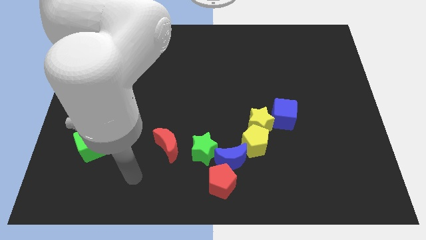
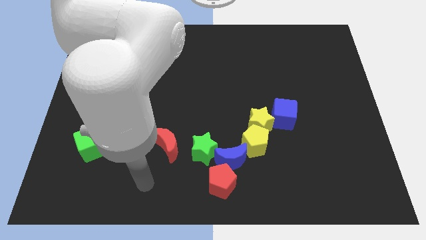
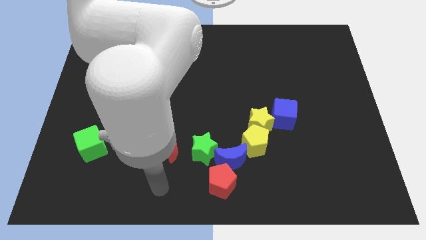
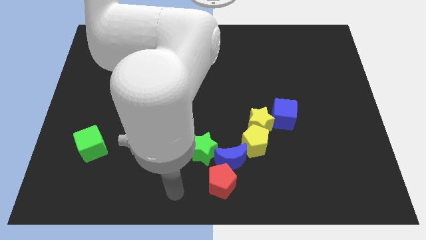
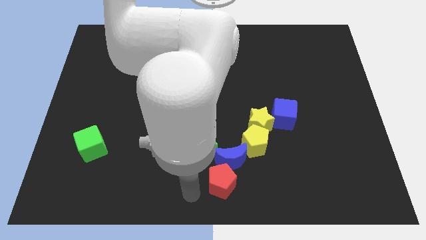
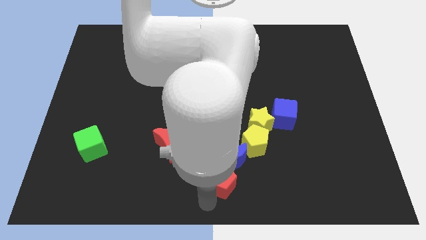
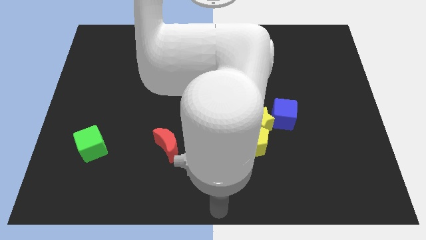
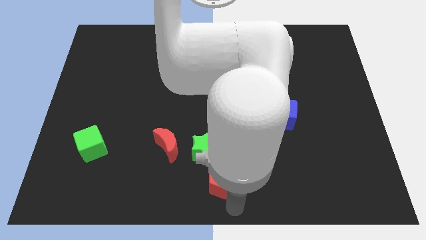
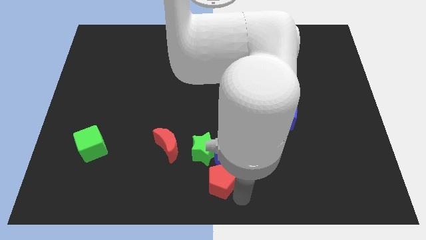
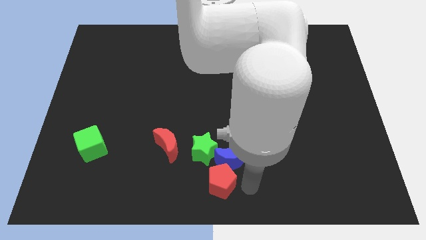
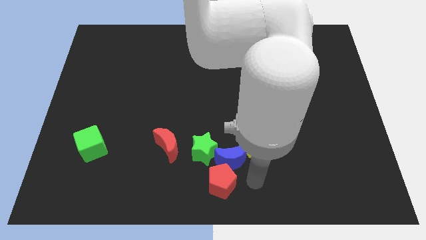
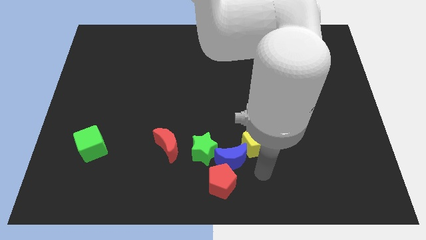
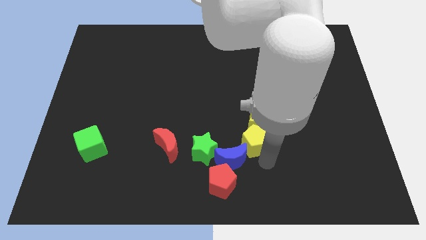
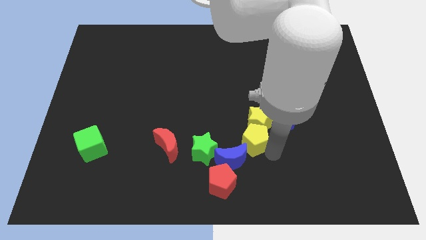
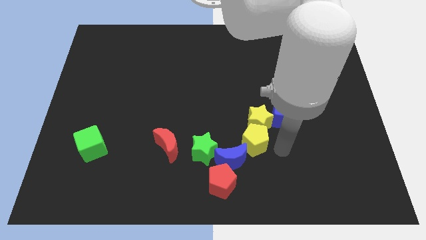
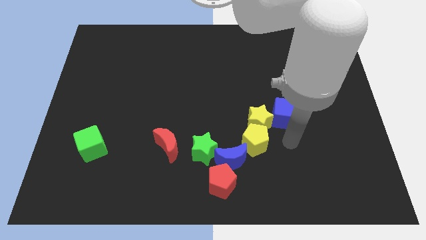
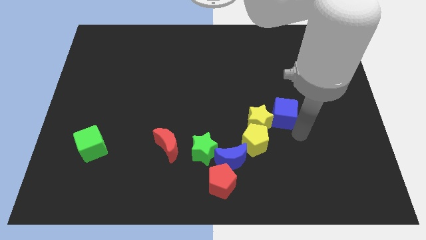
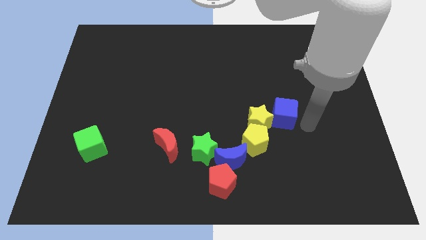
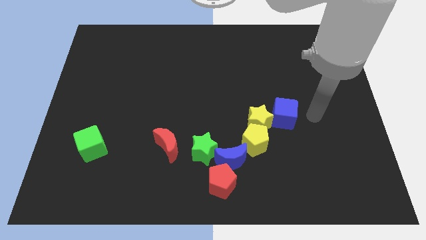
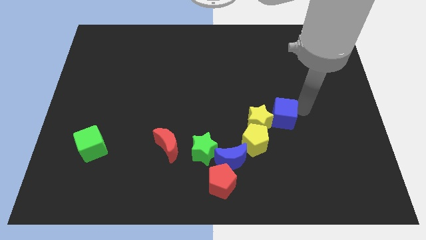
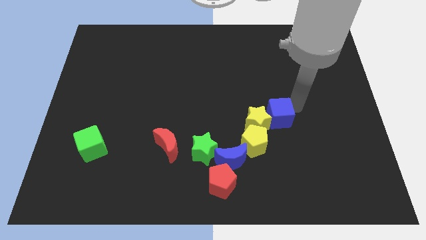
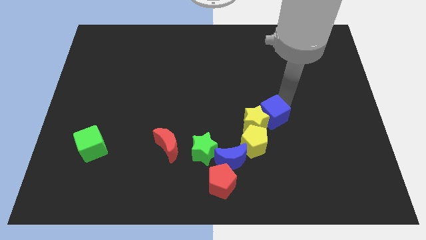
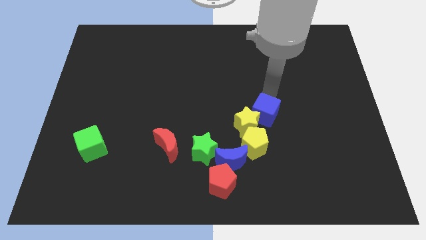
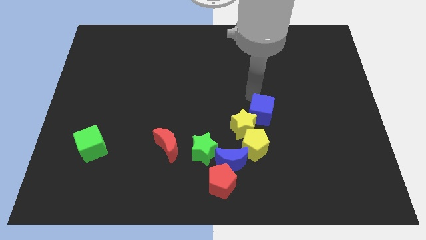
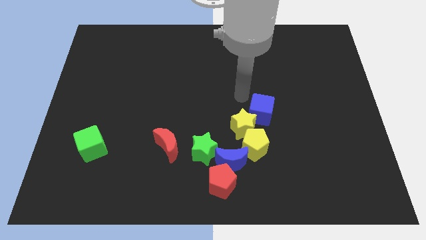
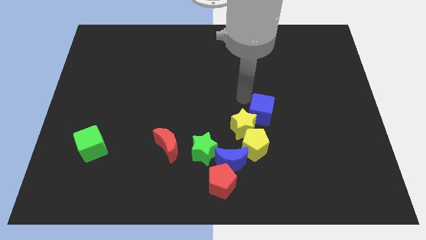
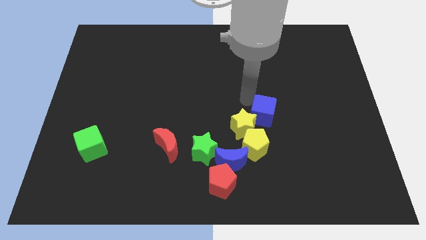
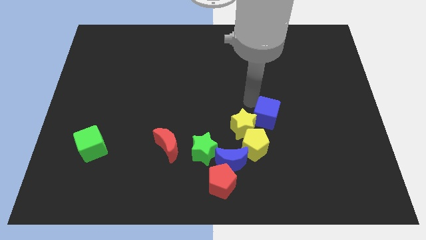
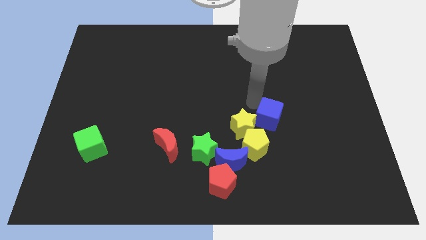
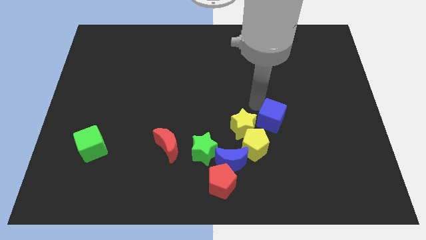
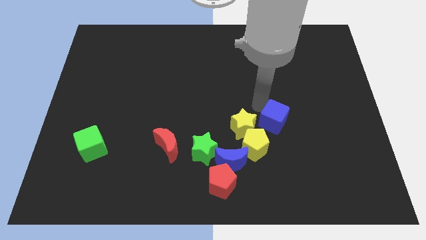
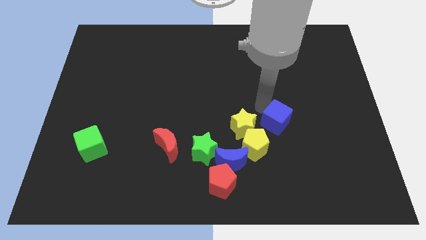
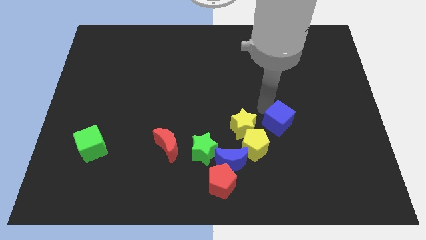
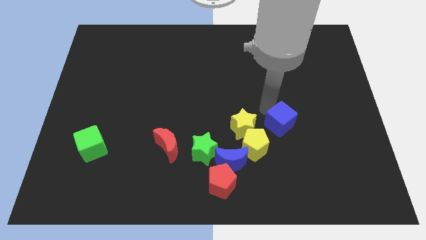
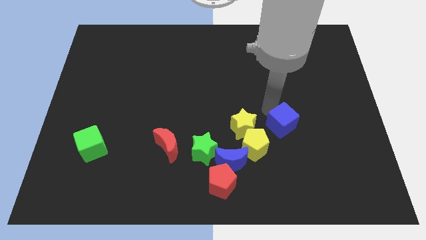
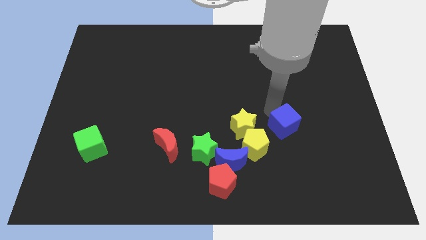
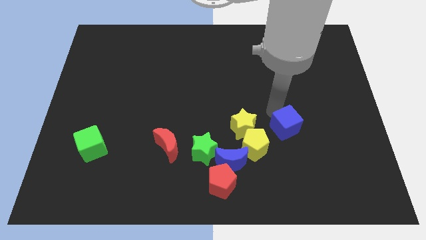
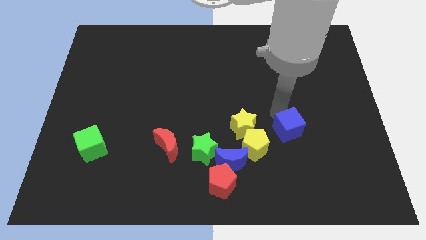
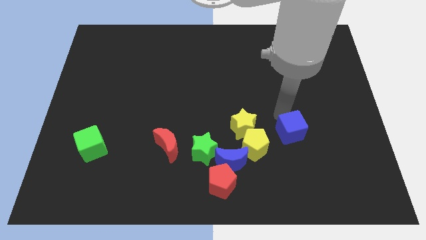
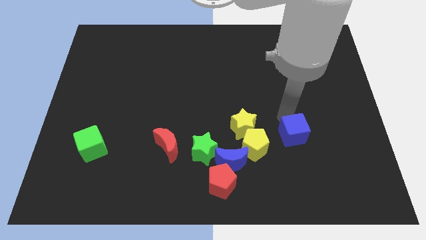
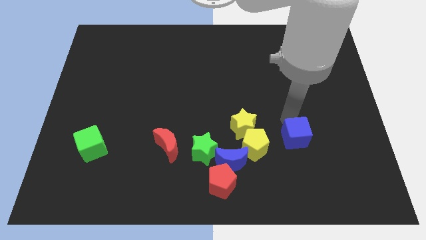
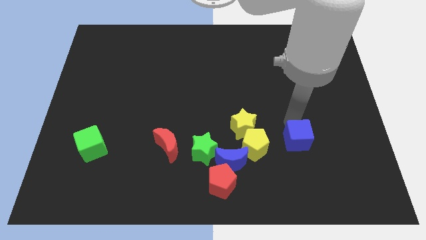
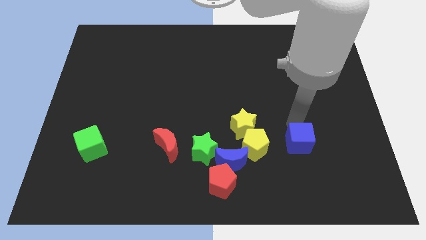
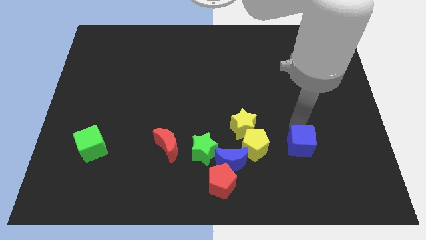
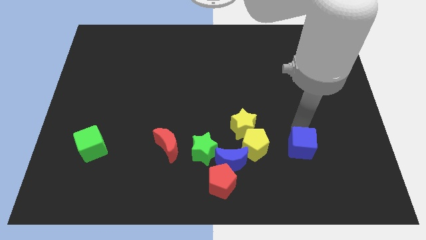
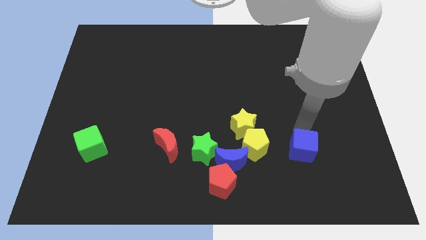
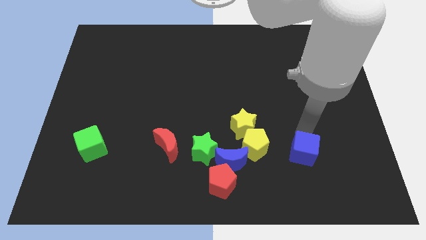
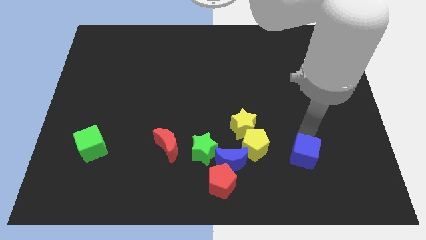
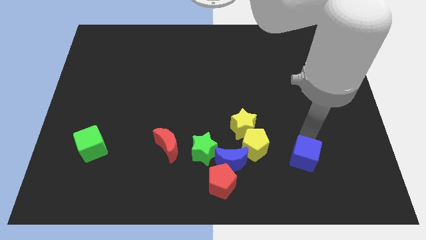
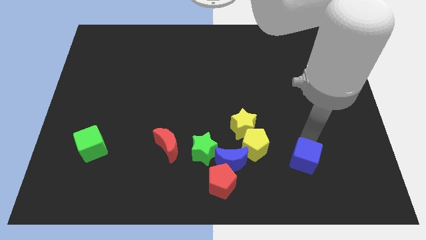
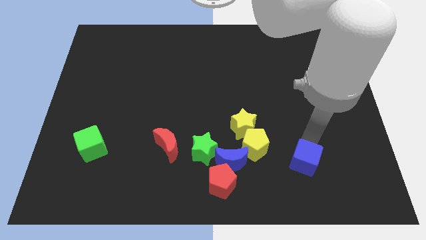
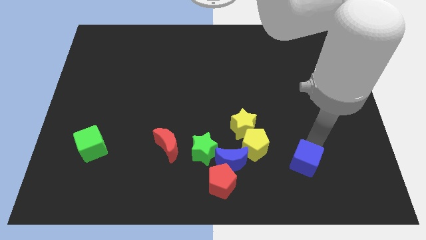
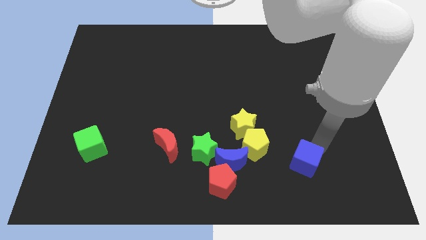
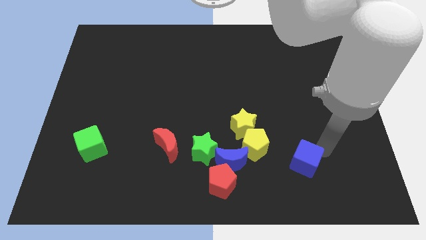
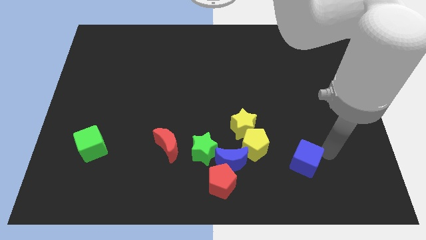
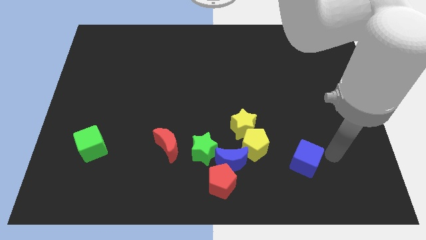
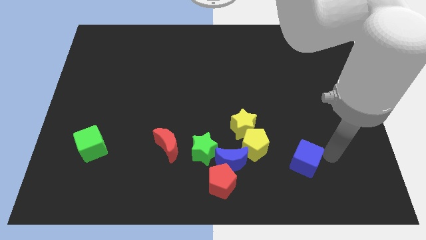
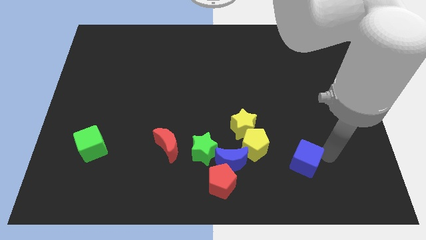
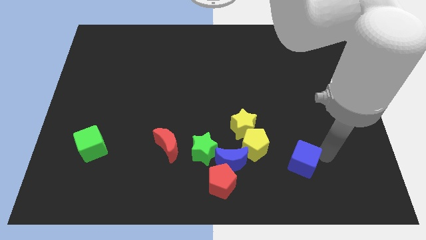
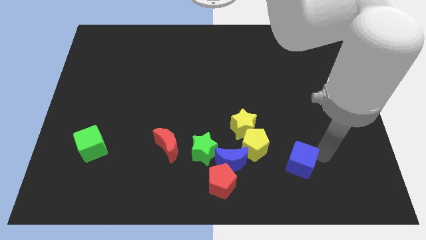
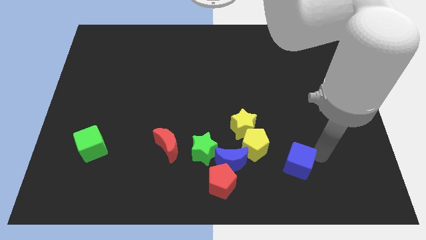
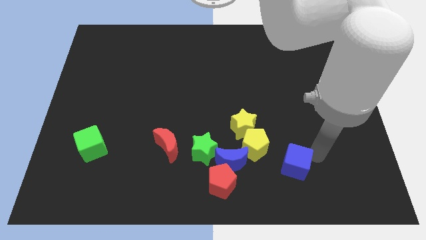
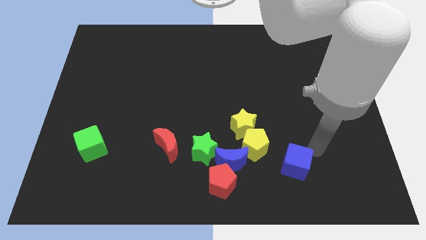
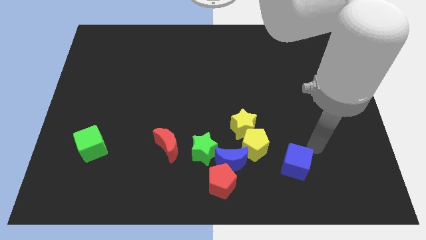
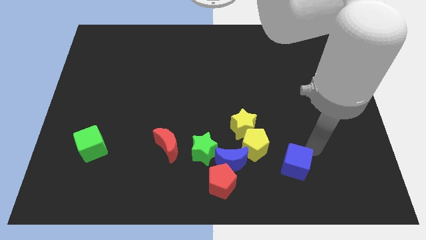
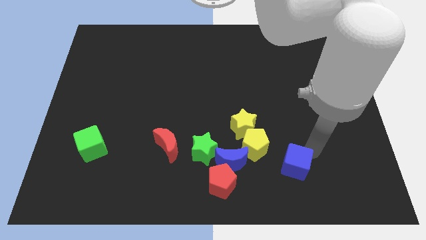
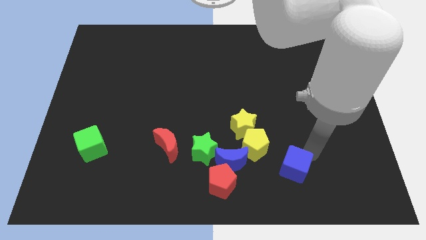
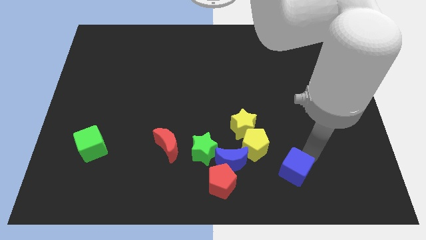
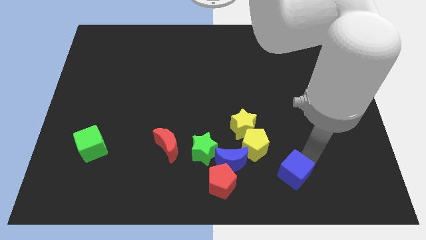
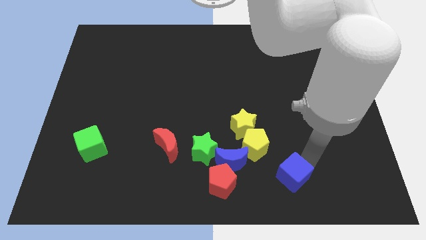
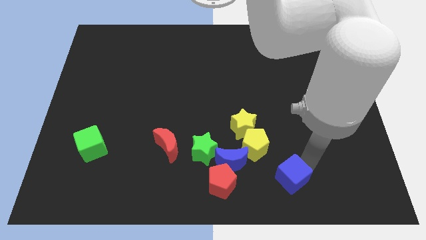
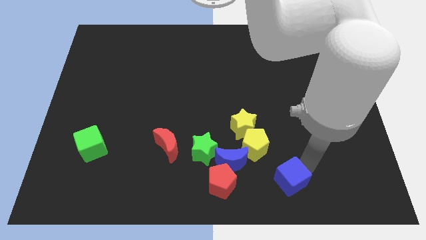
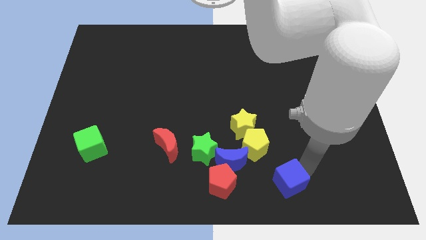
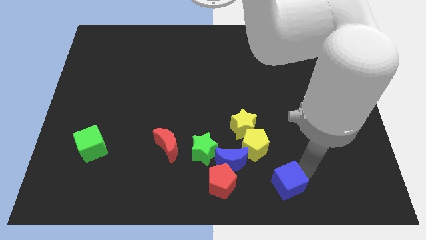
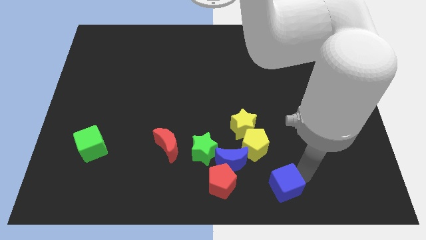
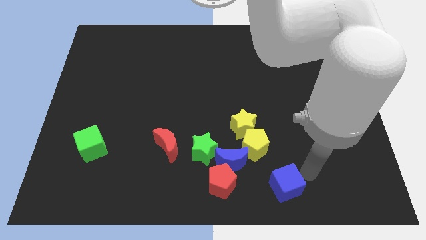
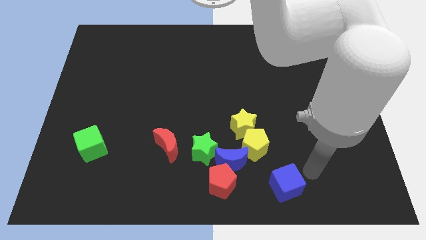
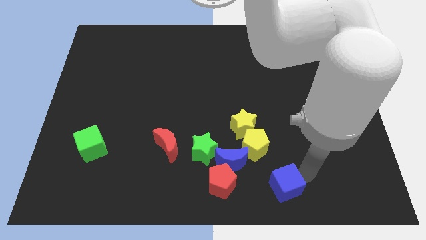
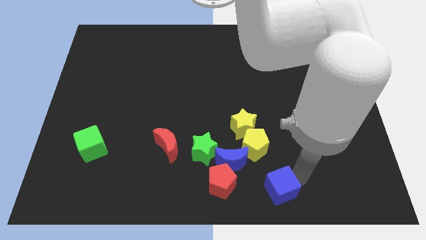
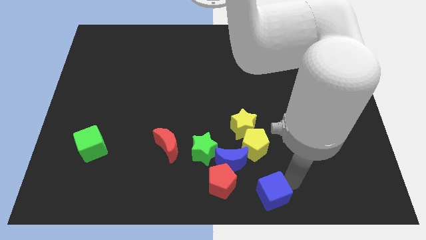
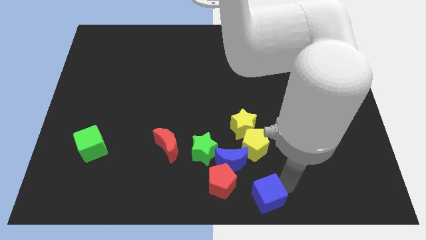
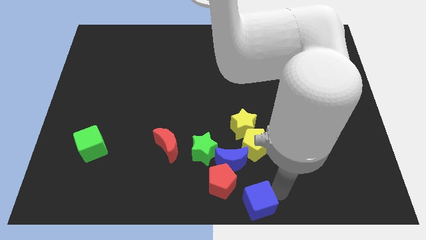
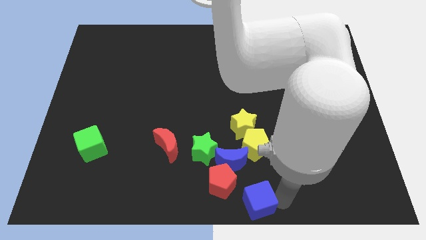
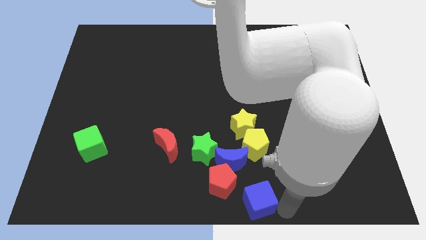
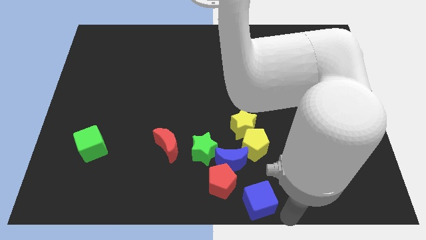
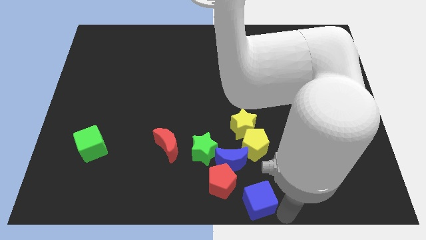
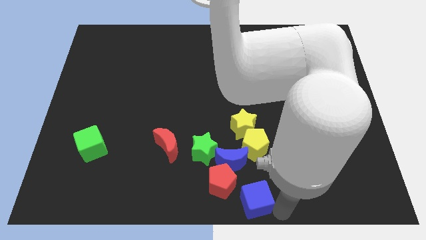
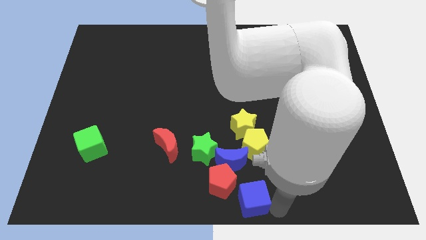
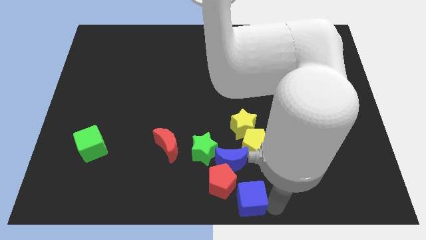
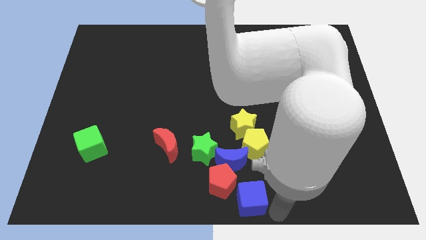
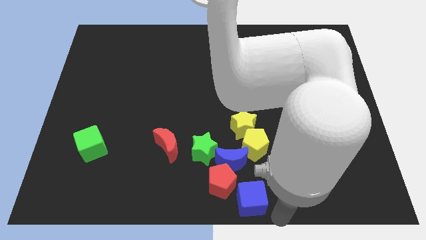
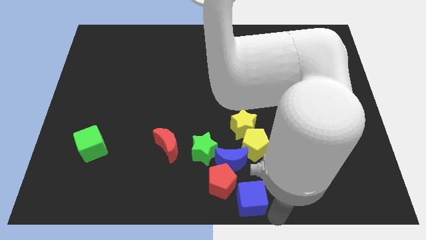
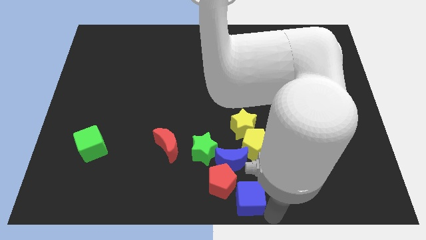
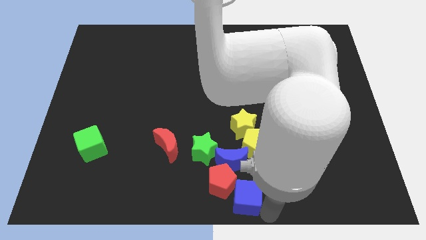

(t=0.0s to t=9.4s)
push the blue cube towards the red pentagon
